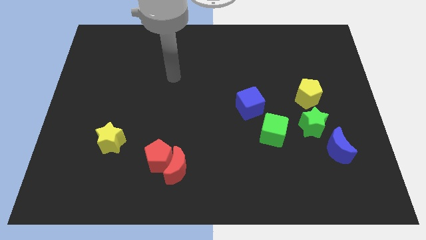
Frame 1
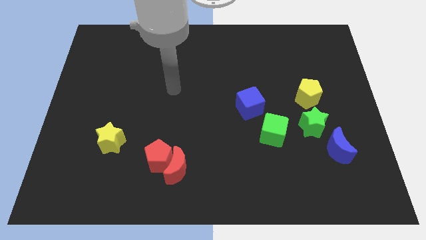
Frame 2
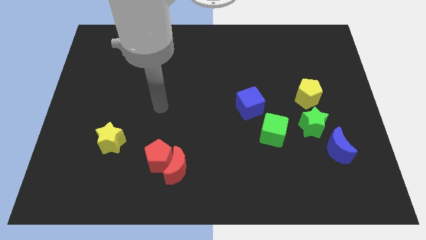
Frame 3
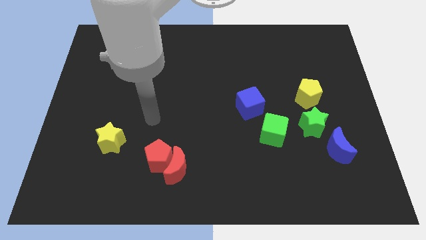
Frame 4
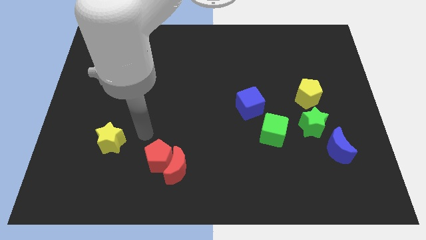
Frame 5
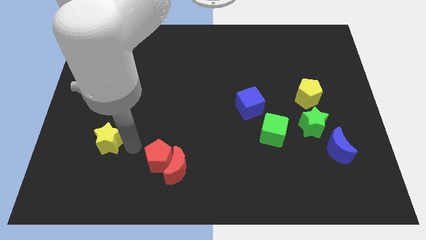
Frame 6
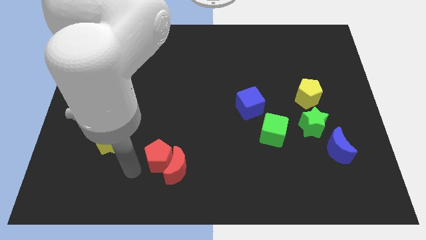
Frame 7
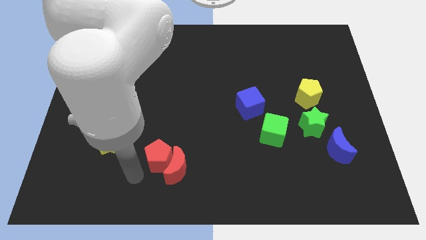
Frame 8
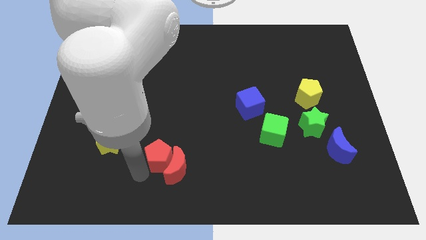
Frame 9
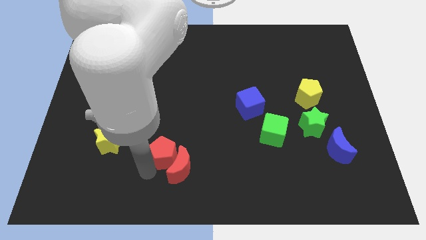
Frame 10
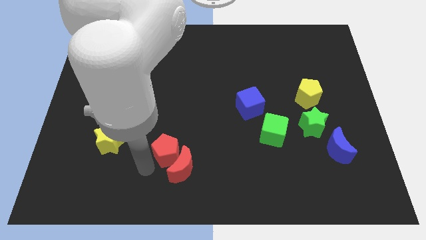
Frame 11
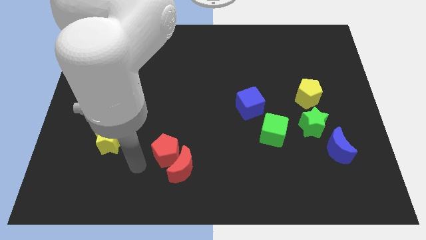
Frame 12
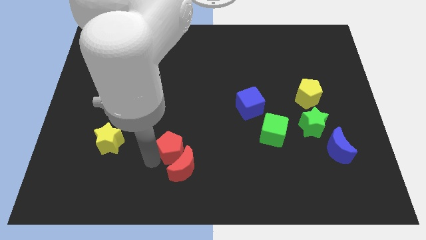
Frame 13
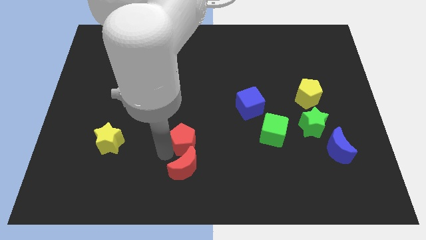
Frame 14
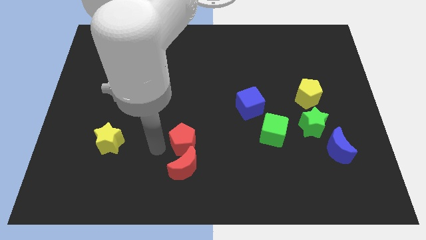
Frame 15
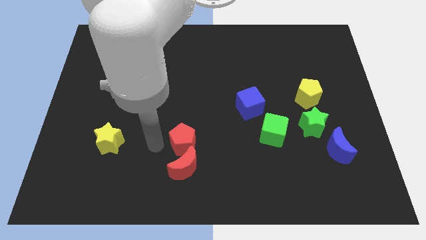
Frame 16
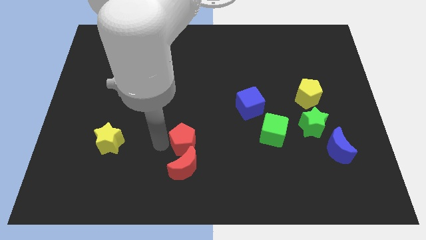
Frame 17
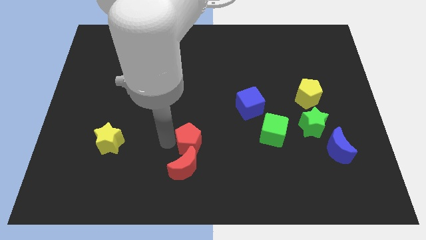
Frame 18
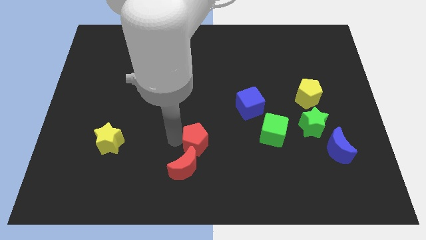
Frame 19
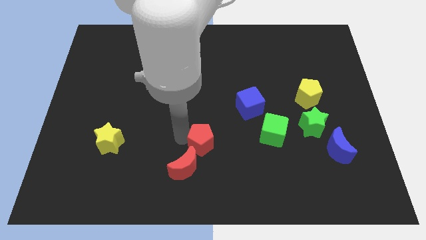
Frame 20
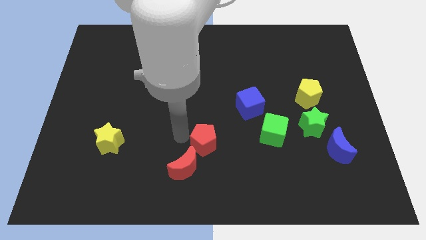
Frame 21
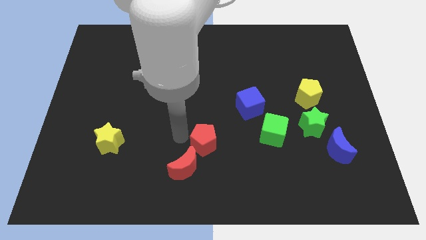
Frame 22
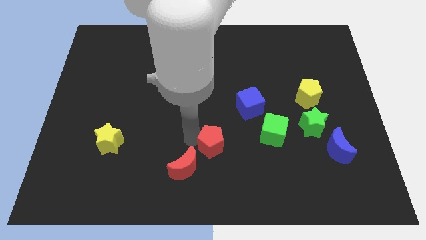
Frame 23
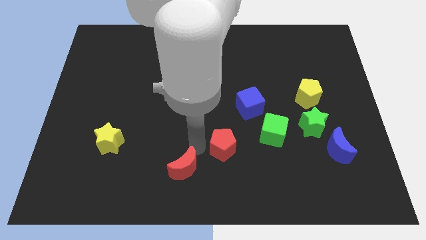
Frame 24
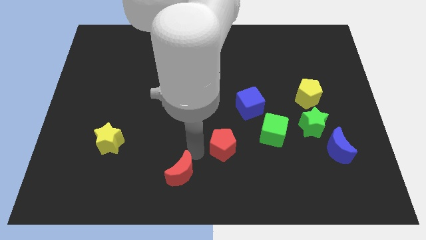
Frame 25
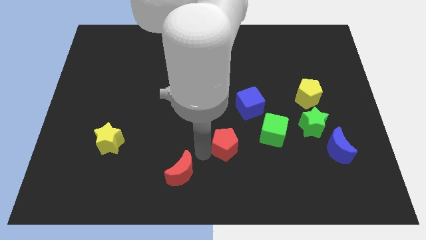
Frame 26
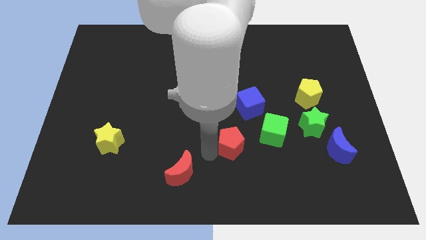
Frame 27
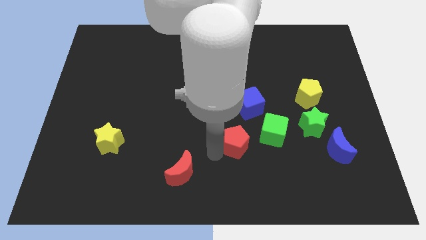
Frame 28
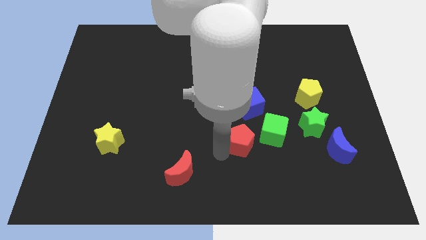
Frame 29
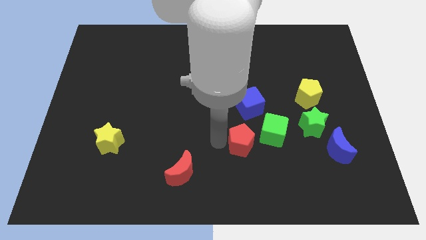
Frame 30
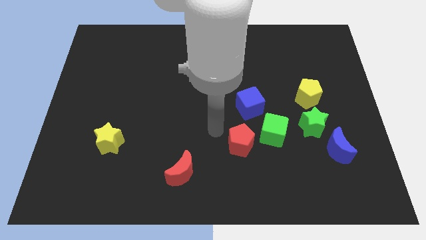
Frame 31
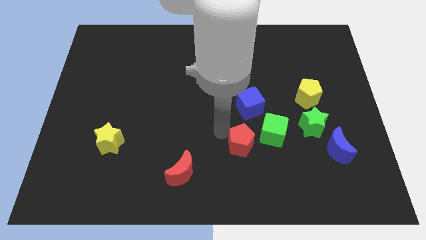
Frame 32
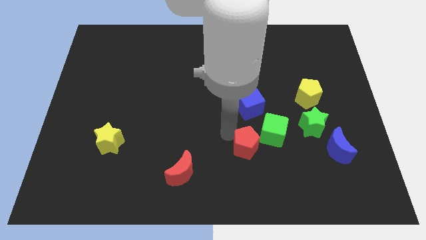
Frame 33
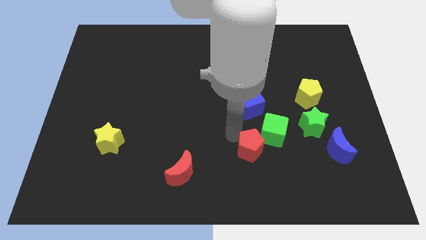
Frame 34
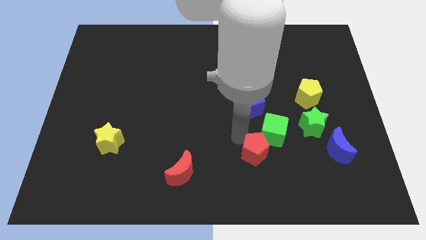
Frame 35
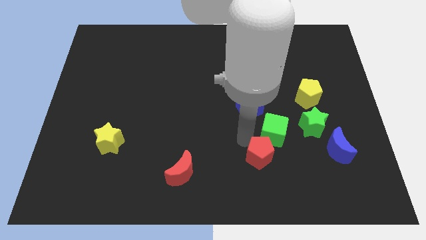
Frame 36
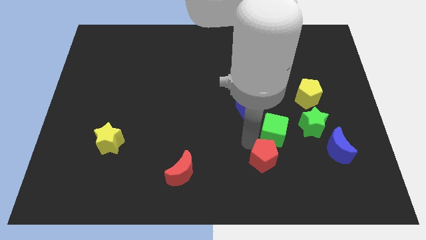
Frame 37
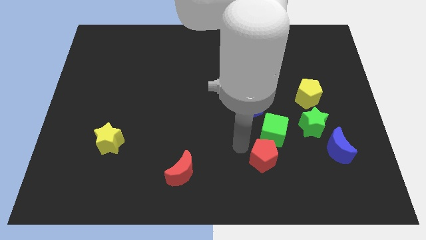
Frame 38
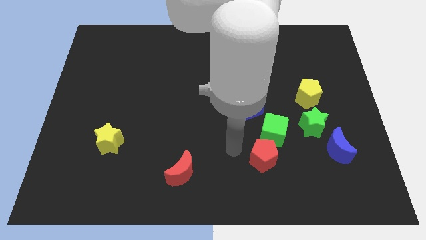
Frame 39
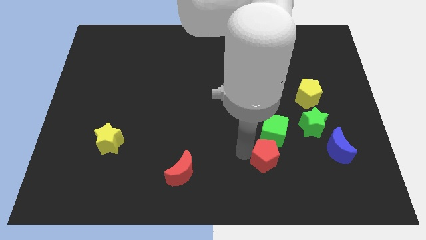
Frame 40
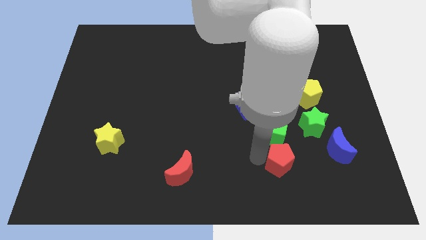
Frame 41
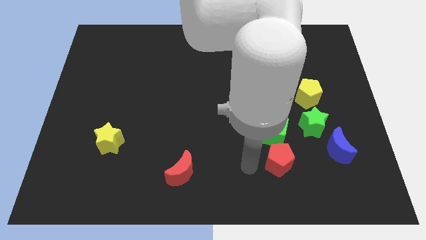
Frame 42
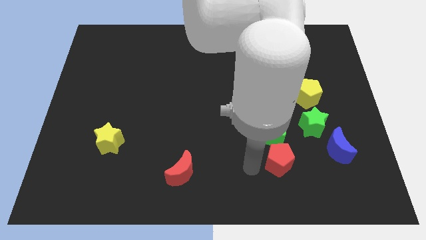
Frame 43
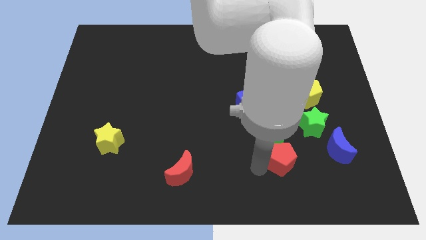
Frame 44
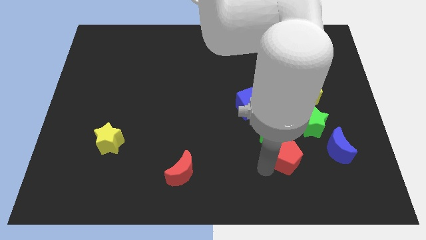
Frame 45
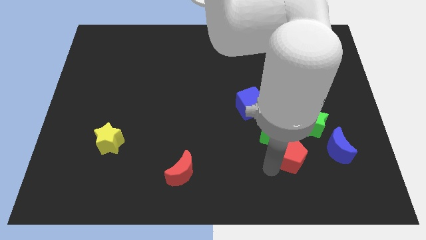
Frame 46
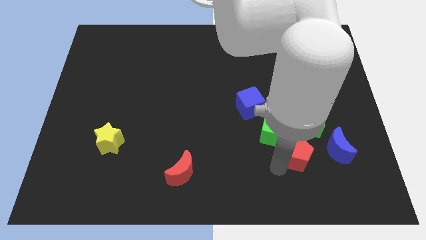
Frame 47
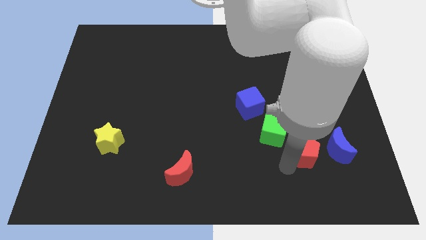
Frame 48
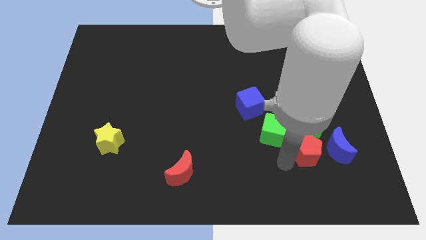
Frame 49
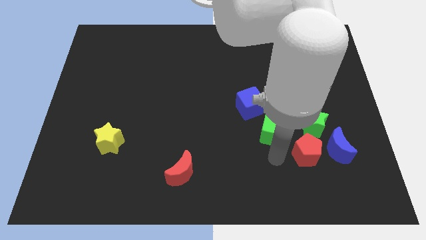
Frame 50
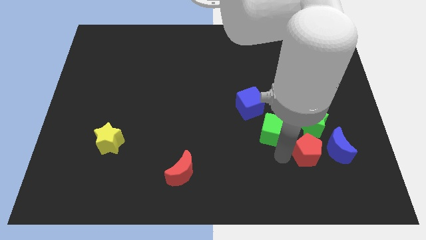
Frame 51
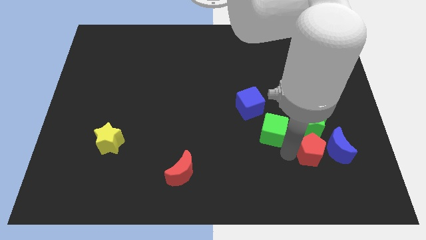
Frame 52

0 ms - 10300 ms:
put the red pentagon close to the blue moon

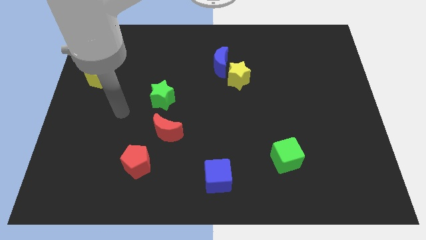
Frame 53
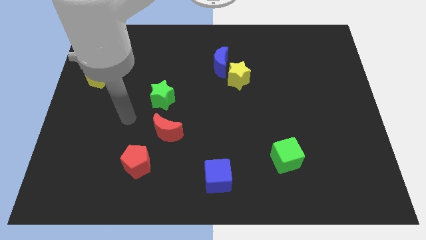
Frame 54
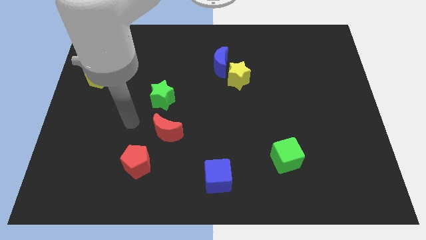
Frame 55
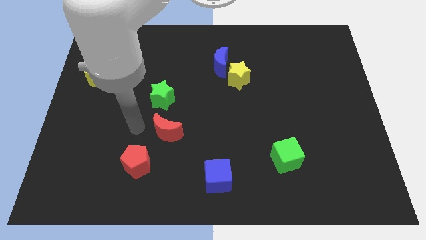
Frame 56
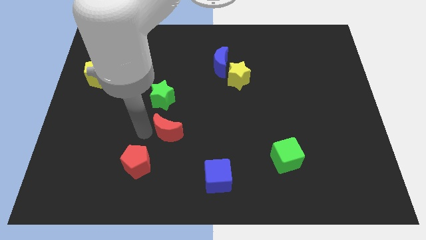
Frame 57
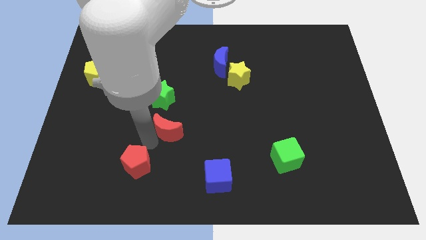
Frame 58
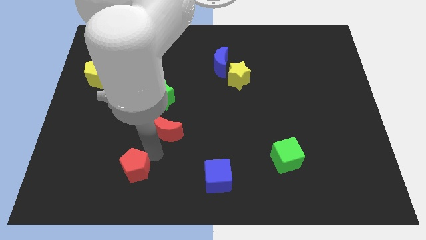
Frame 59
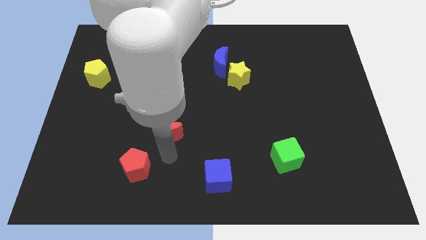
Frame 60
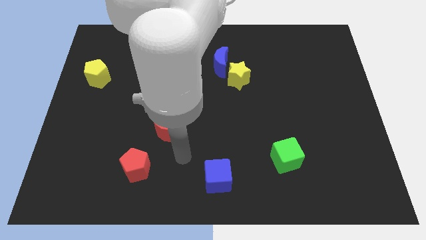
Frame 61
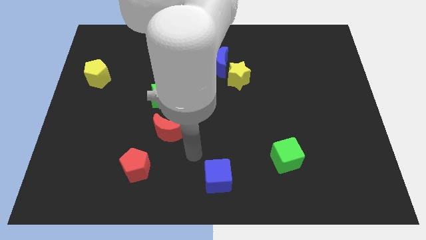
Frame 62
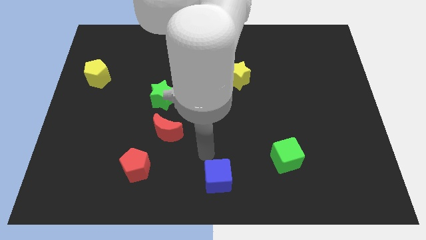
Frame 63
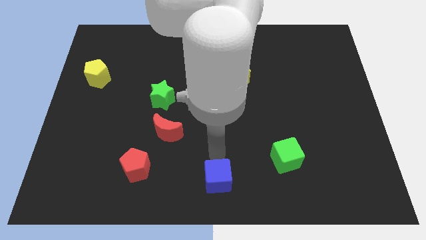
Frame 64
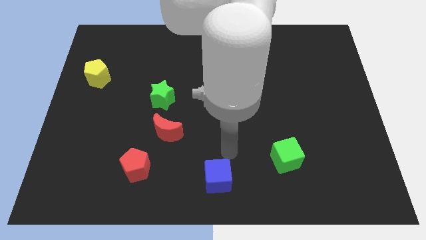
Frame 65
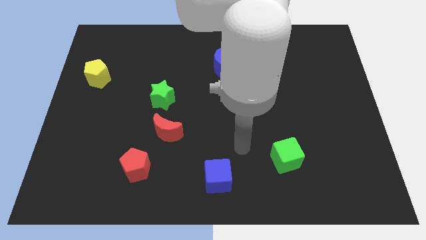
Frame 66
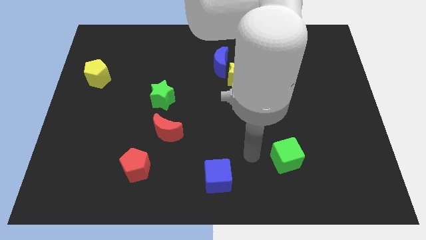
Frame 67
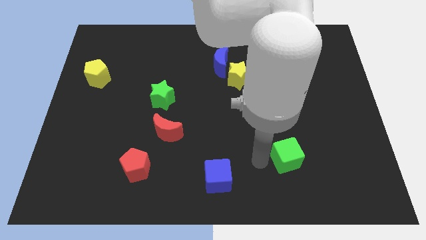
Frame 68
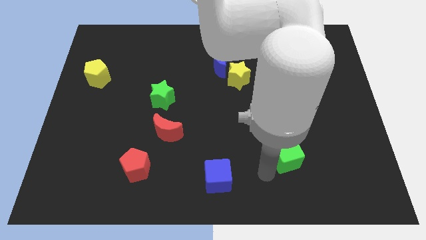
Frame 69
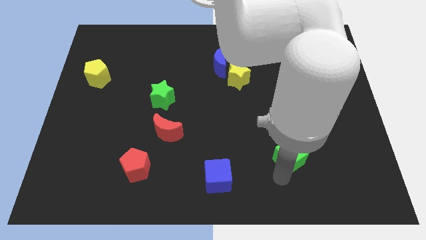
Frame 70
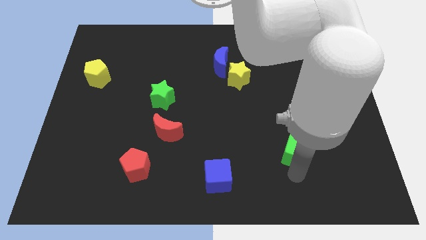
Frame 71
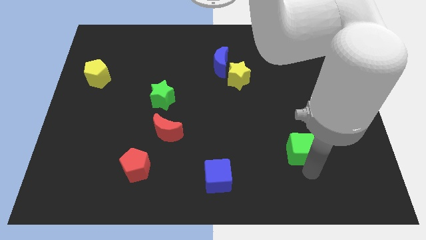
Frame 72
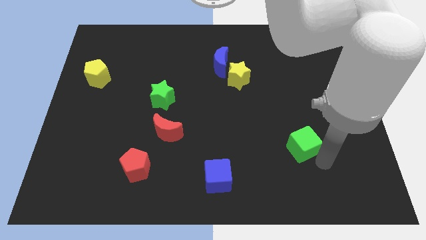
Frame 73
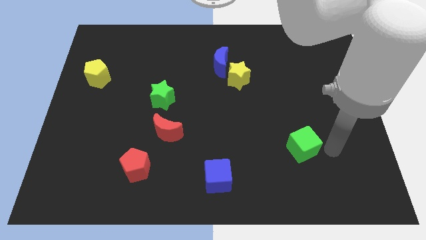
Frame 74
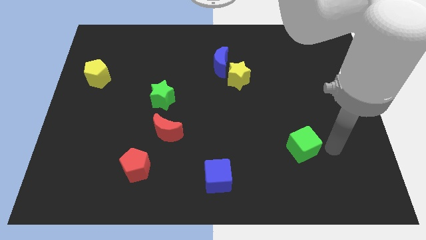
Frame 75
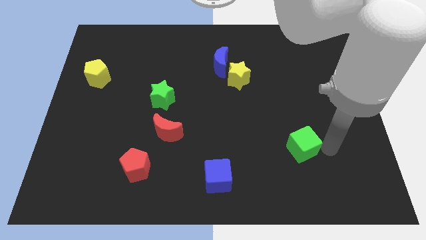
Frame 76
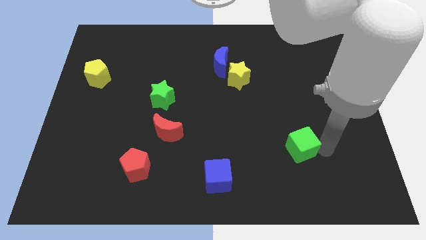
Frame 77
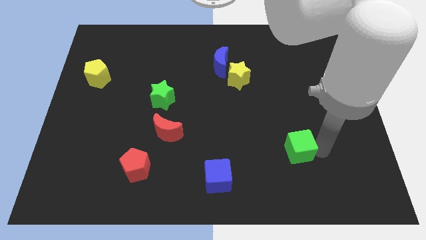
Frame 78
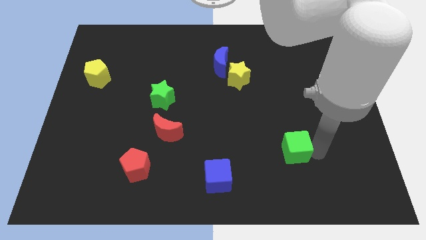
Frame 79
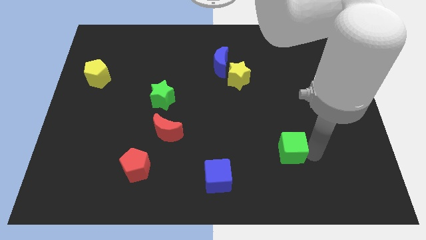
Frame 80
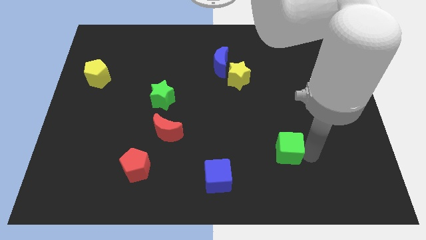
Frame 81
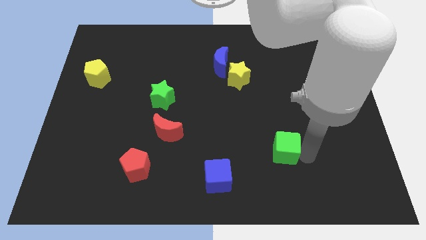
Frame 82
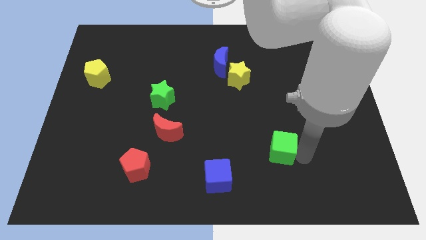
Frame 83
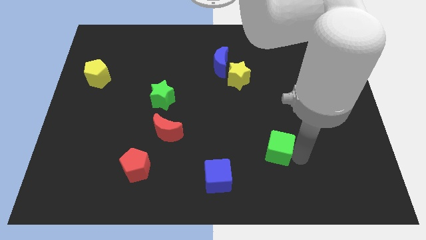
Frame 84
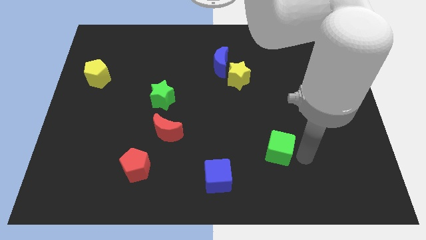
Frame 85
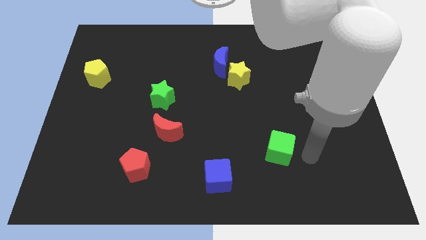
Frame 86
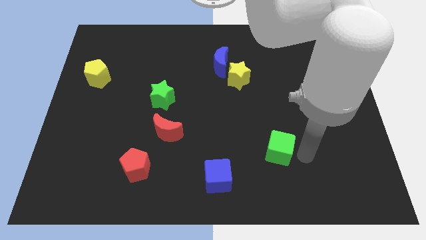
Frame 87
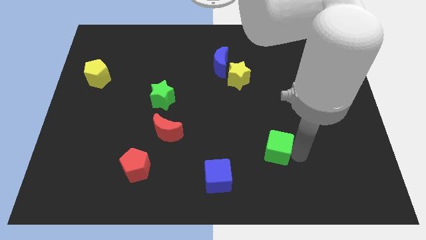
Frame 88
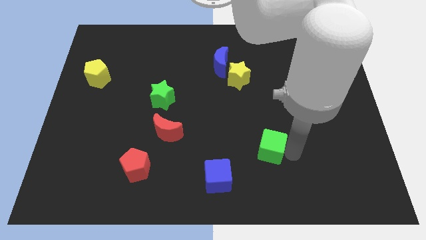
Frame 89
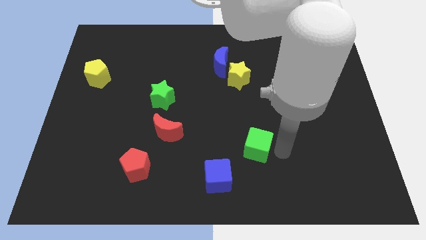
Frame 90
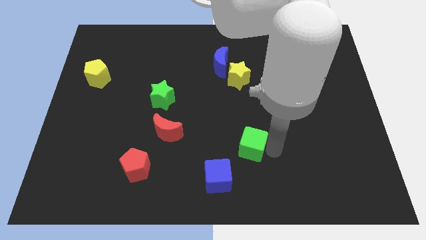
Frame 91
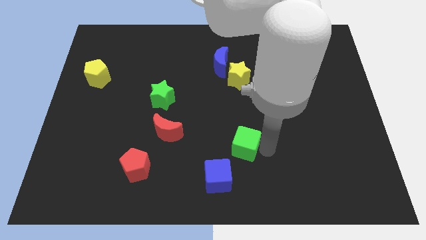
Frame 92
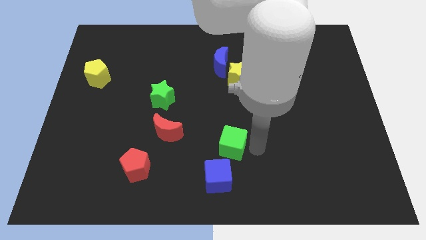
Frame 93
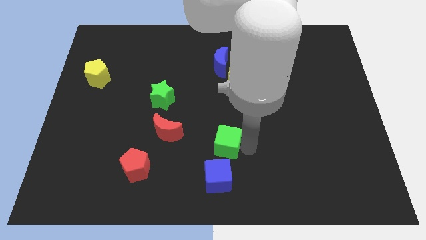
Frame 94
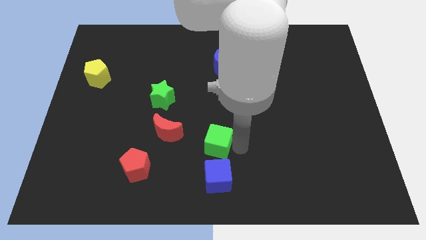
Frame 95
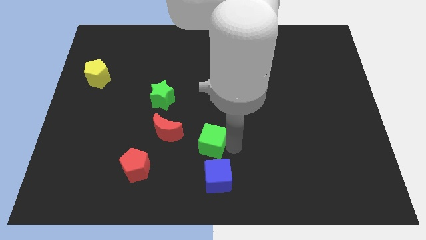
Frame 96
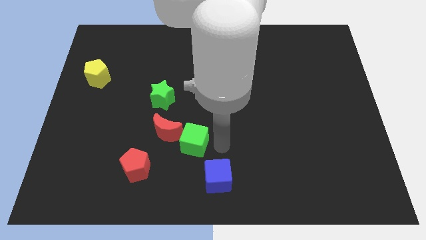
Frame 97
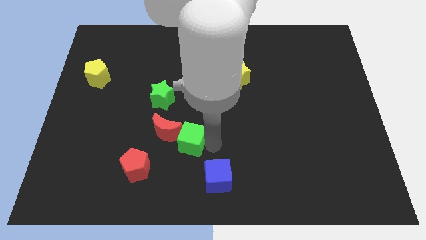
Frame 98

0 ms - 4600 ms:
move the green cube to the red moon
